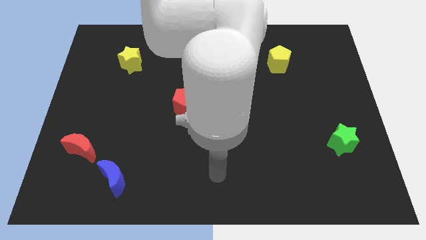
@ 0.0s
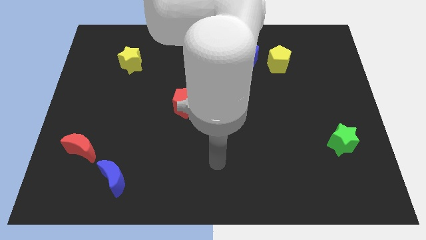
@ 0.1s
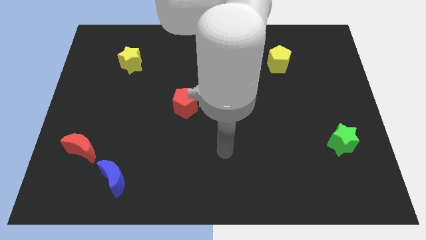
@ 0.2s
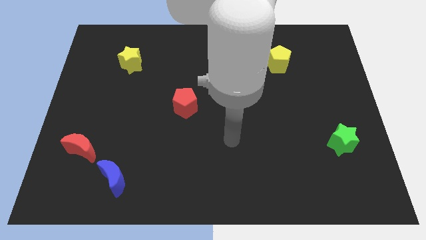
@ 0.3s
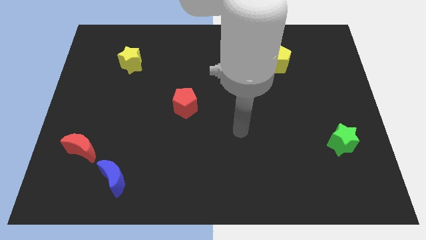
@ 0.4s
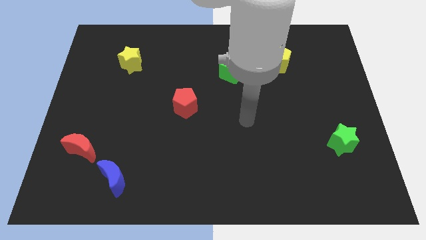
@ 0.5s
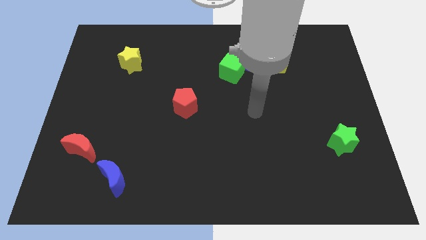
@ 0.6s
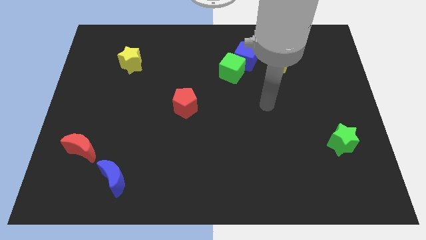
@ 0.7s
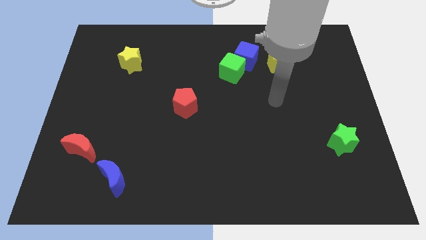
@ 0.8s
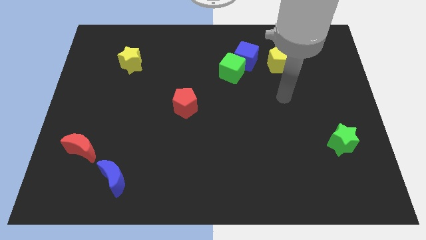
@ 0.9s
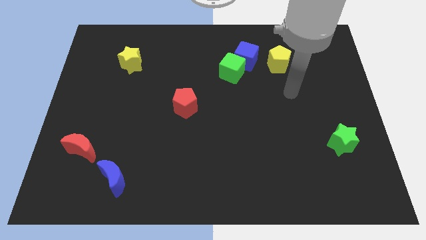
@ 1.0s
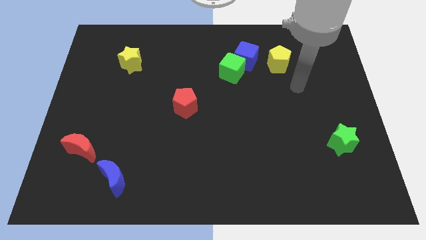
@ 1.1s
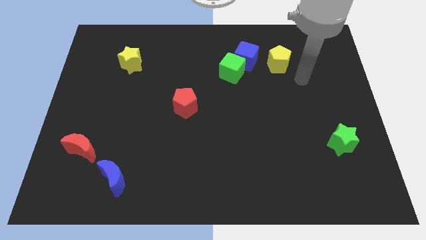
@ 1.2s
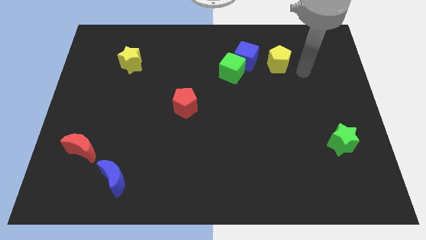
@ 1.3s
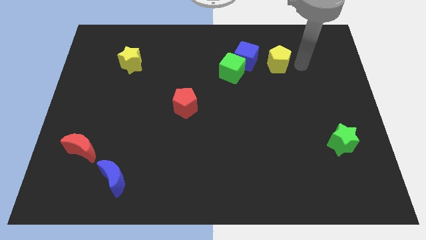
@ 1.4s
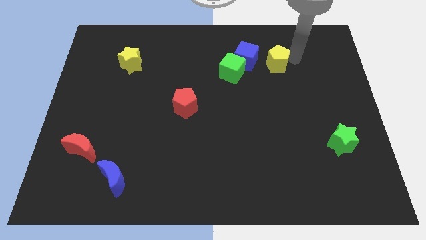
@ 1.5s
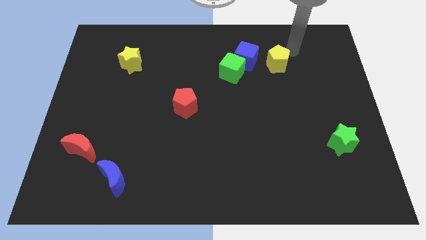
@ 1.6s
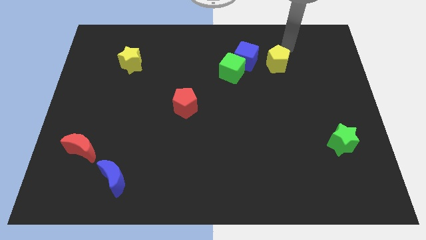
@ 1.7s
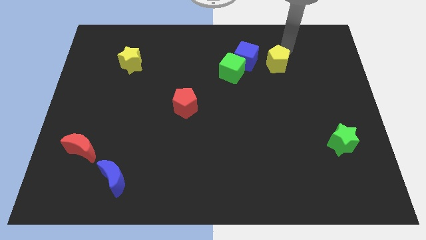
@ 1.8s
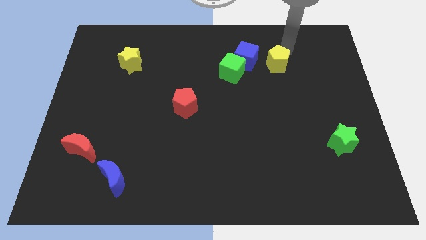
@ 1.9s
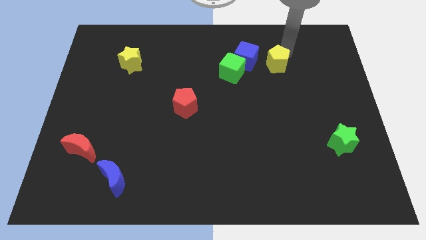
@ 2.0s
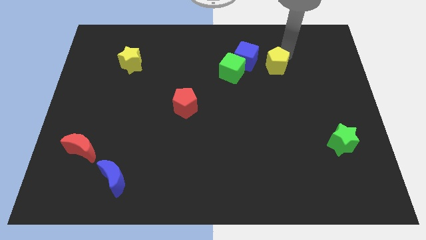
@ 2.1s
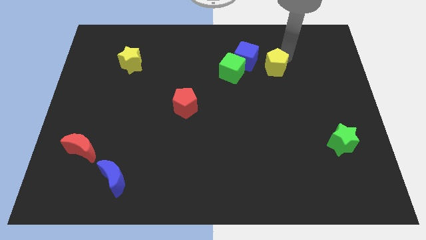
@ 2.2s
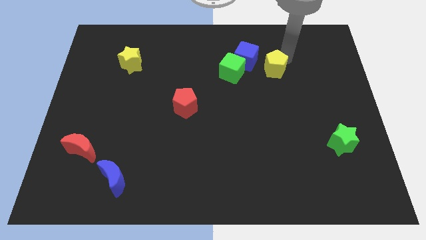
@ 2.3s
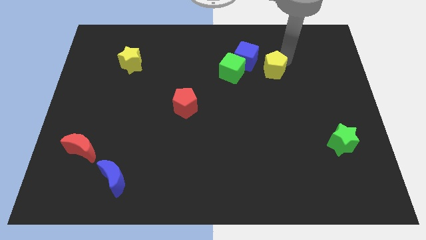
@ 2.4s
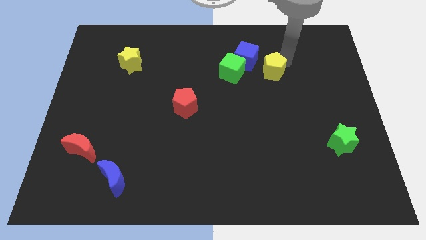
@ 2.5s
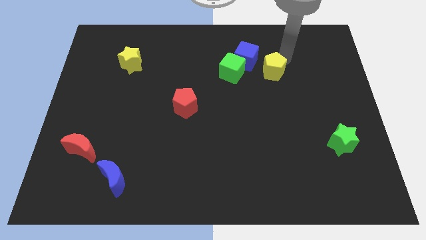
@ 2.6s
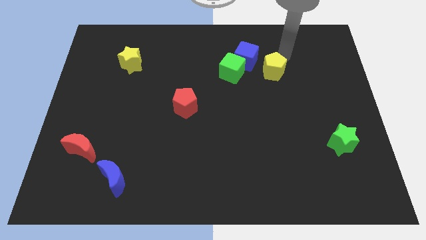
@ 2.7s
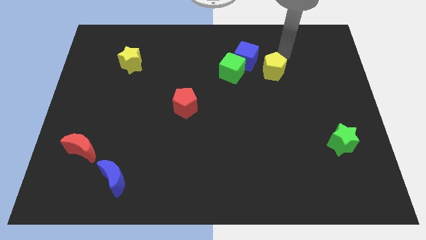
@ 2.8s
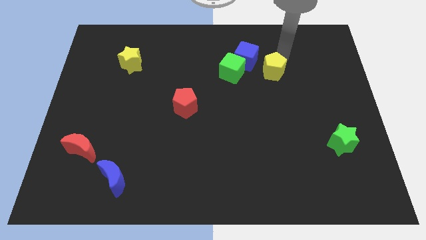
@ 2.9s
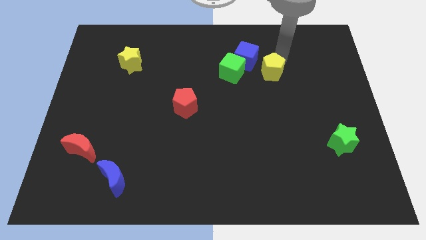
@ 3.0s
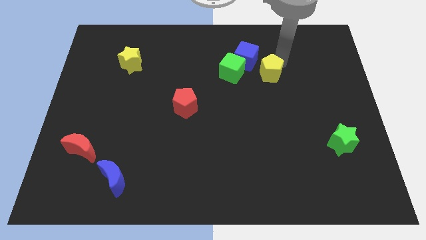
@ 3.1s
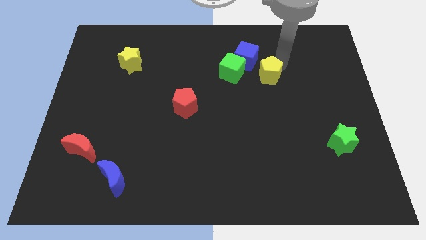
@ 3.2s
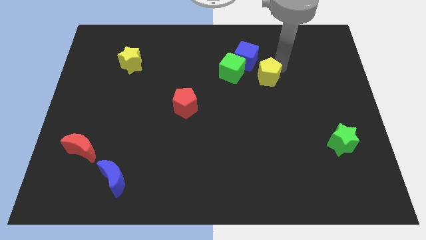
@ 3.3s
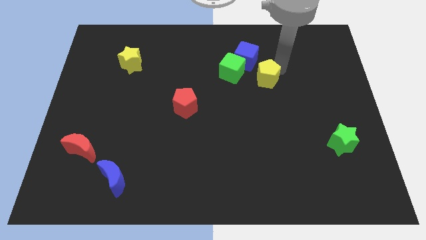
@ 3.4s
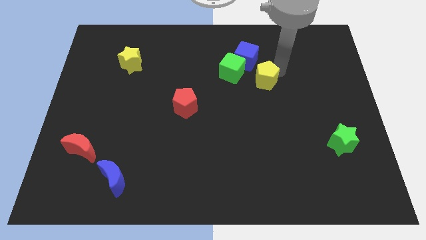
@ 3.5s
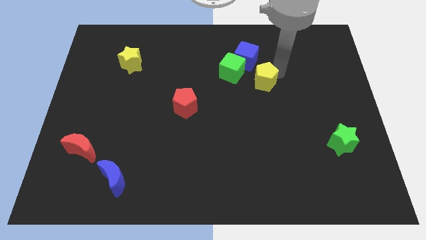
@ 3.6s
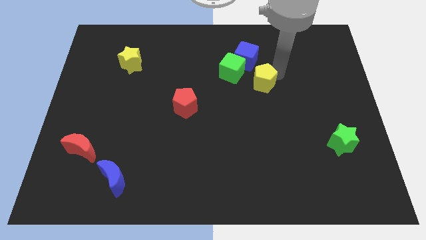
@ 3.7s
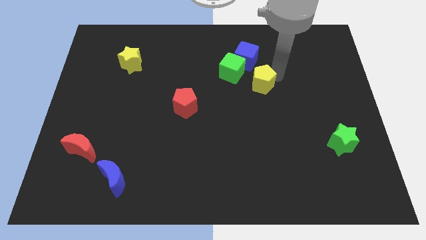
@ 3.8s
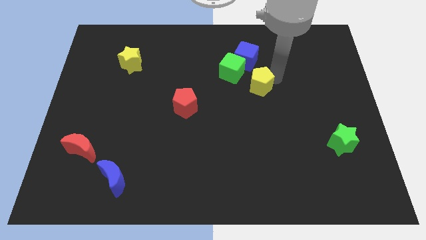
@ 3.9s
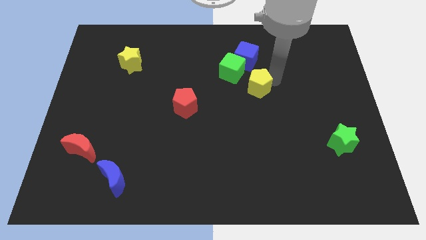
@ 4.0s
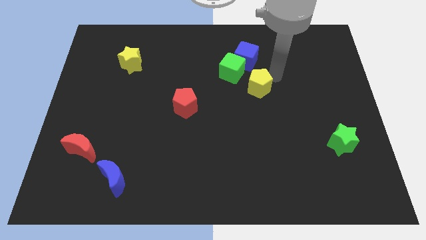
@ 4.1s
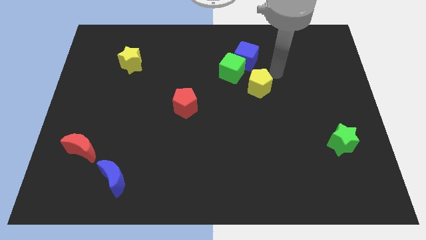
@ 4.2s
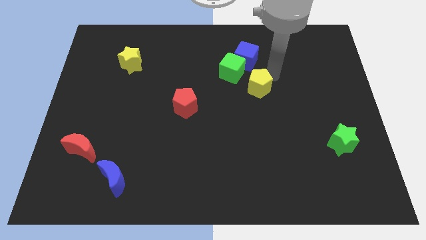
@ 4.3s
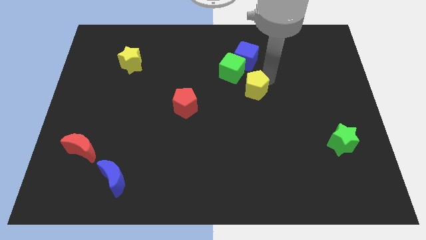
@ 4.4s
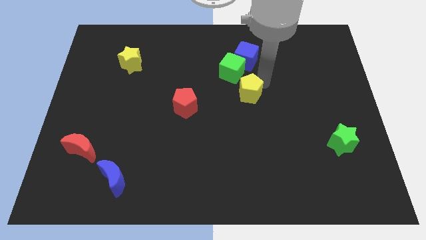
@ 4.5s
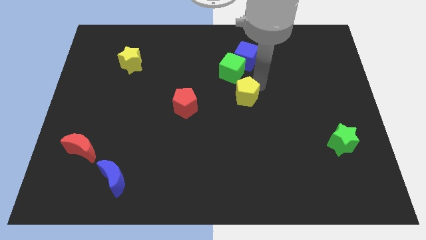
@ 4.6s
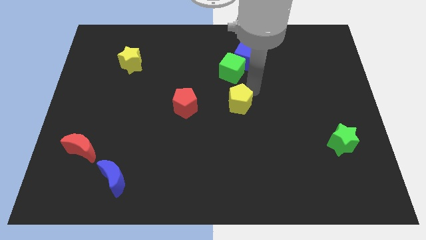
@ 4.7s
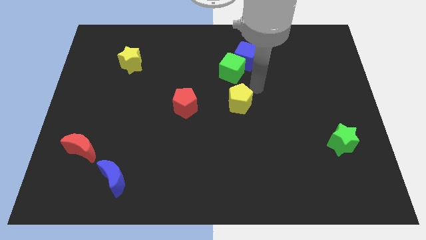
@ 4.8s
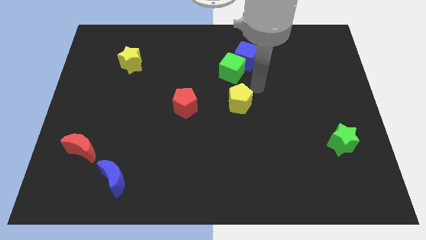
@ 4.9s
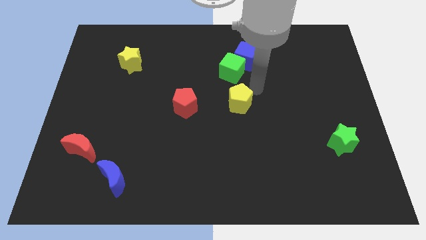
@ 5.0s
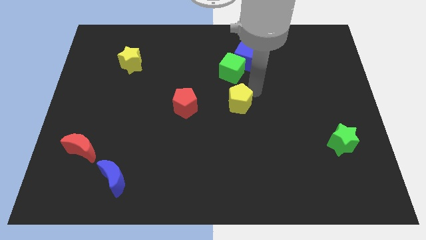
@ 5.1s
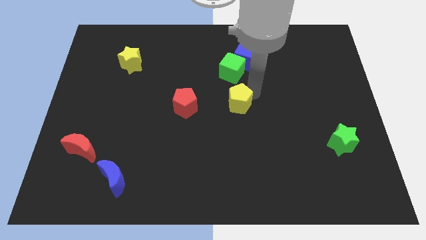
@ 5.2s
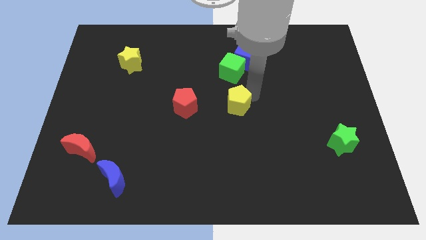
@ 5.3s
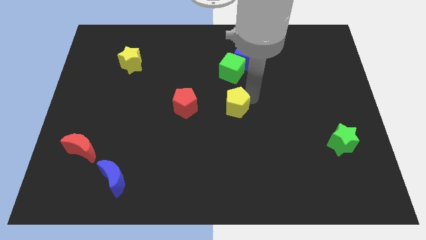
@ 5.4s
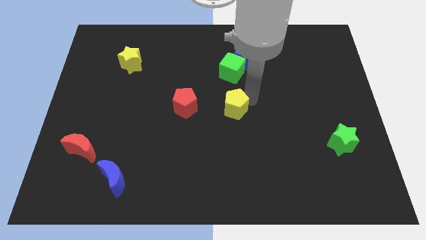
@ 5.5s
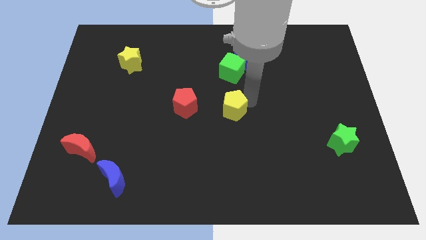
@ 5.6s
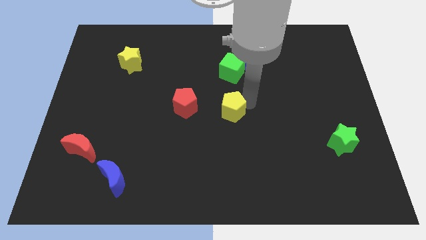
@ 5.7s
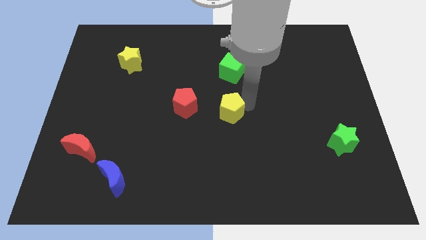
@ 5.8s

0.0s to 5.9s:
push the yellow pentagon downwards and then left

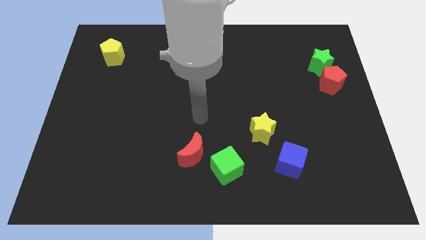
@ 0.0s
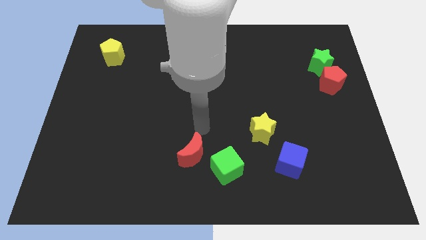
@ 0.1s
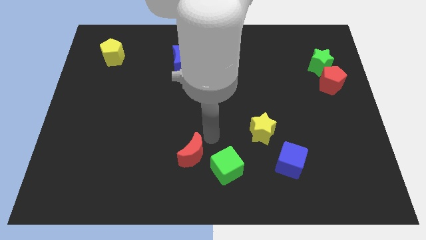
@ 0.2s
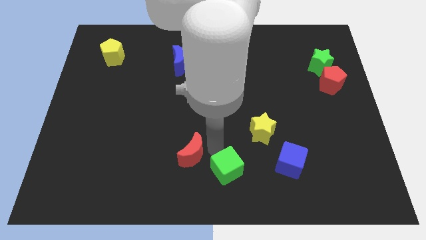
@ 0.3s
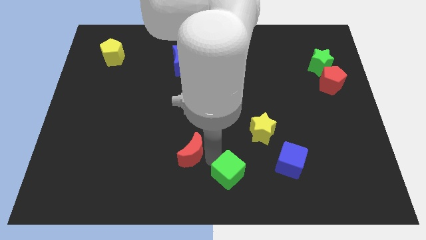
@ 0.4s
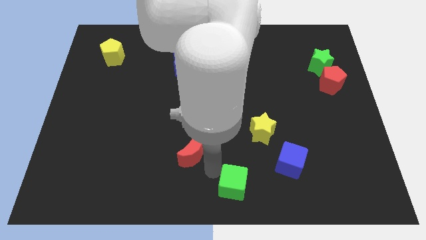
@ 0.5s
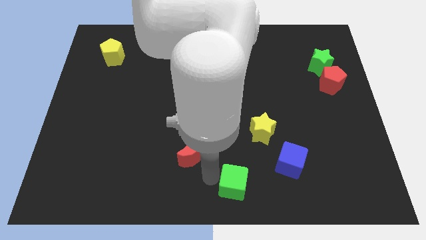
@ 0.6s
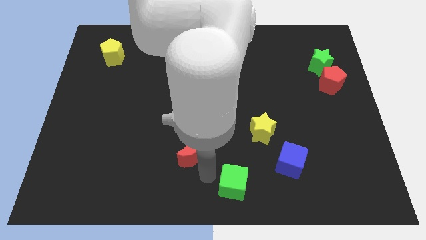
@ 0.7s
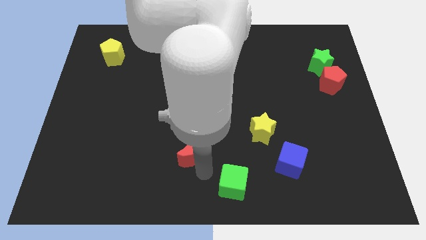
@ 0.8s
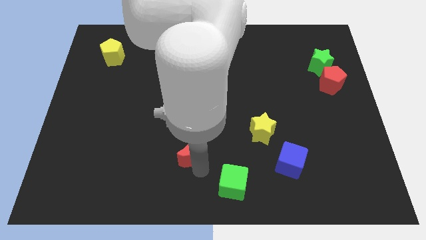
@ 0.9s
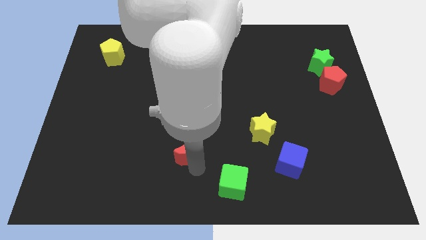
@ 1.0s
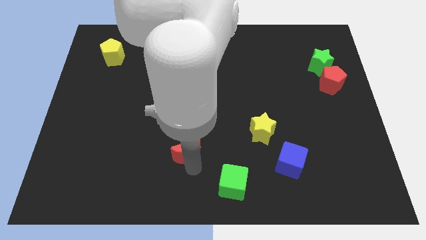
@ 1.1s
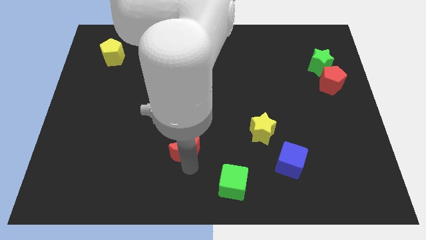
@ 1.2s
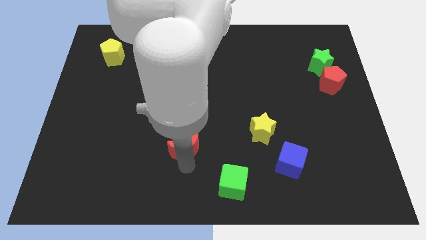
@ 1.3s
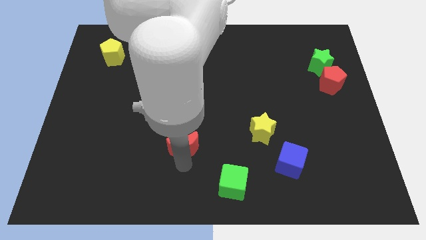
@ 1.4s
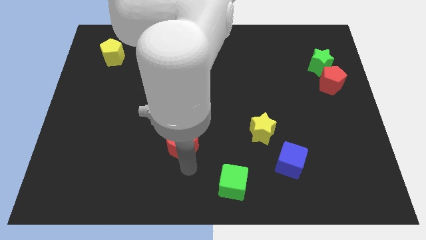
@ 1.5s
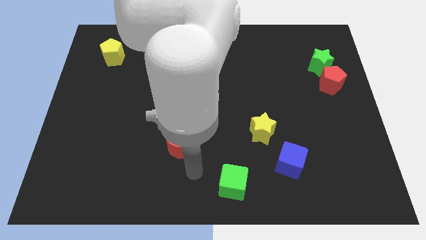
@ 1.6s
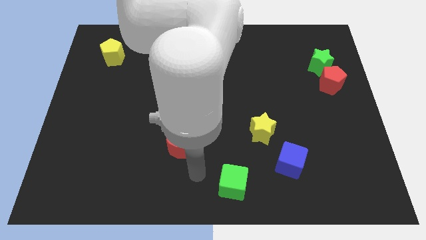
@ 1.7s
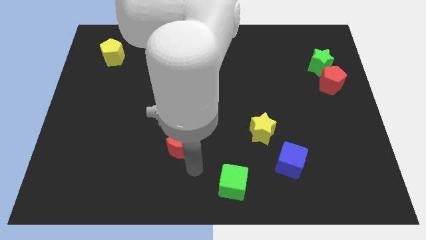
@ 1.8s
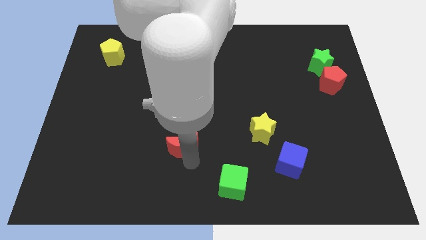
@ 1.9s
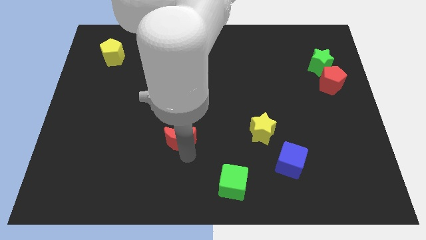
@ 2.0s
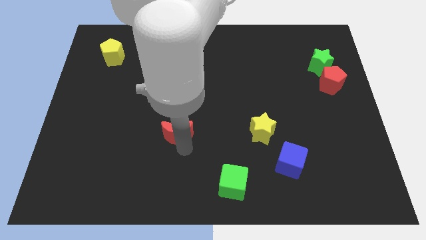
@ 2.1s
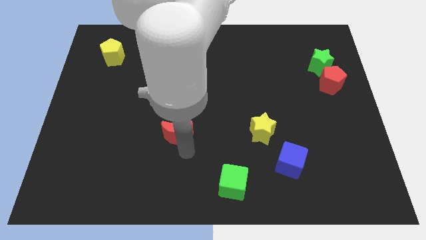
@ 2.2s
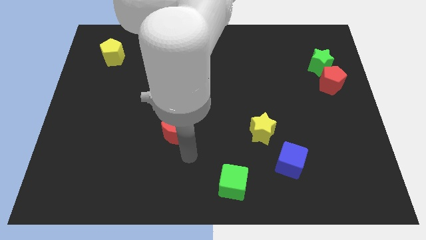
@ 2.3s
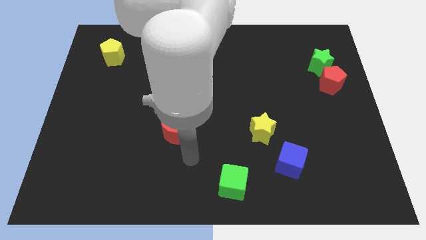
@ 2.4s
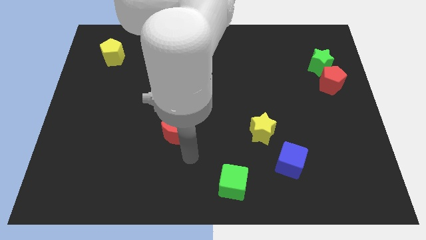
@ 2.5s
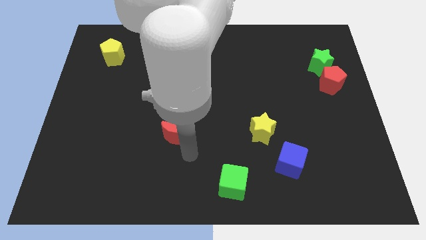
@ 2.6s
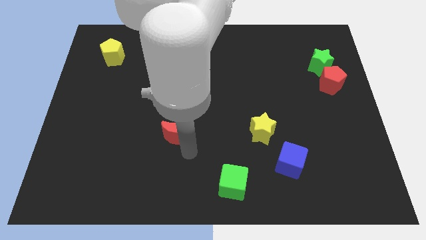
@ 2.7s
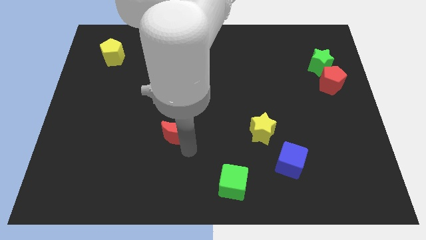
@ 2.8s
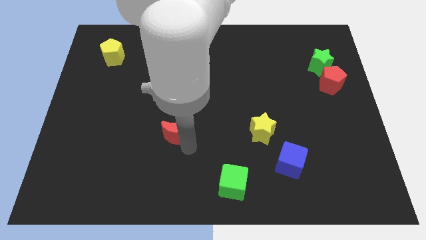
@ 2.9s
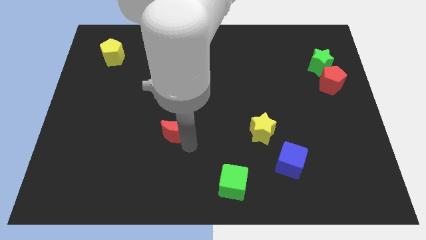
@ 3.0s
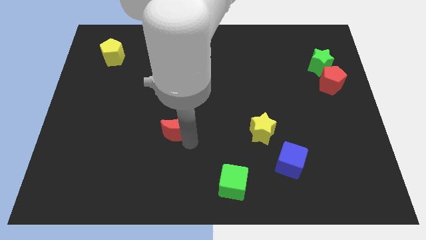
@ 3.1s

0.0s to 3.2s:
slightly slide the red moon up and left diagonally
